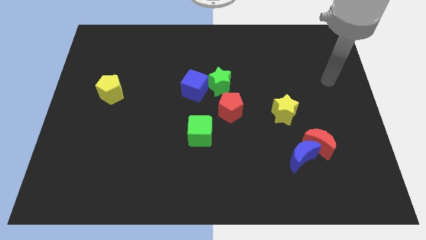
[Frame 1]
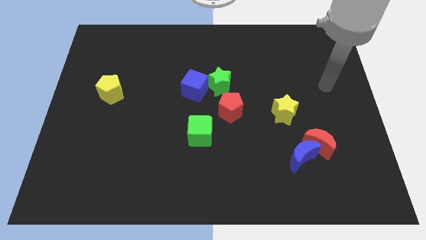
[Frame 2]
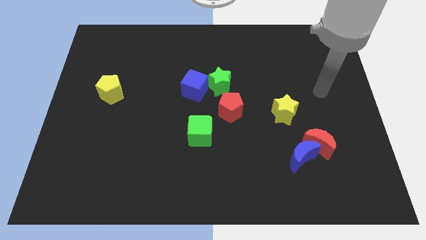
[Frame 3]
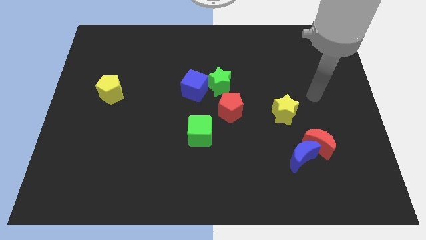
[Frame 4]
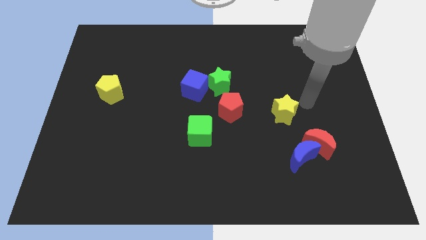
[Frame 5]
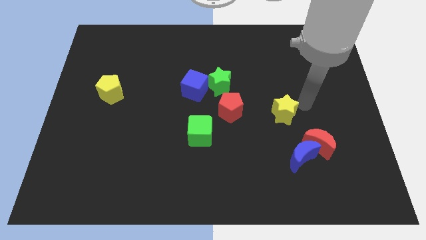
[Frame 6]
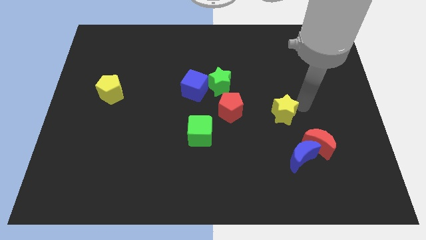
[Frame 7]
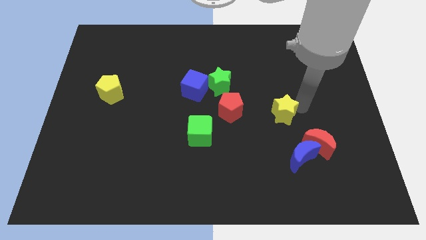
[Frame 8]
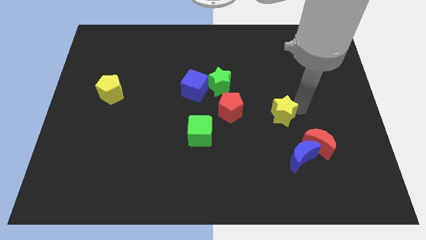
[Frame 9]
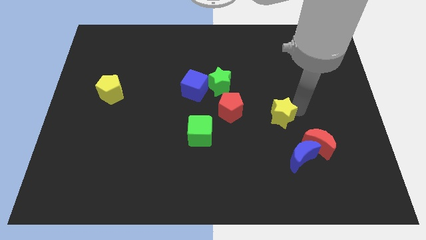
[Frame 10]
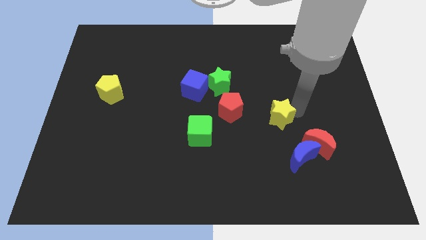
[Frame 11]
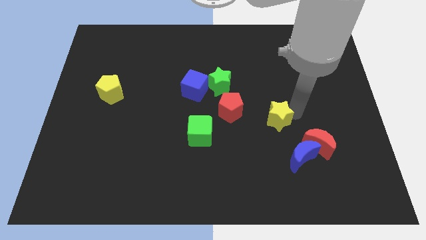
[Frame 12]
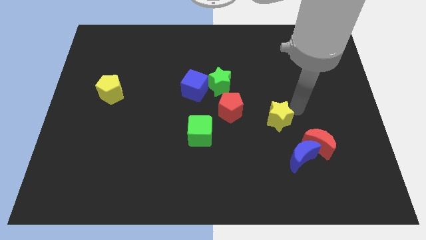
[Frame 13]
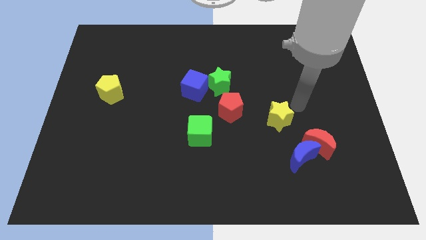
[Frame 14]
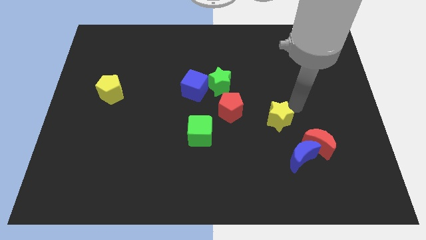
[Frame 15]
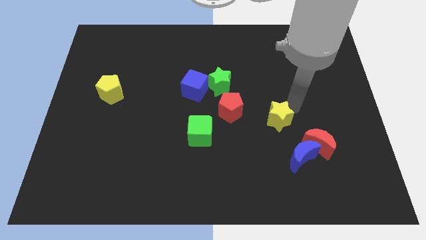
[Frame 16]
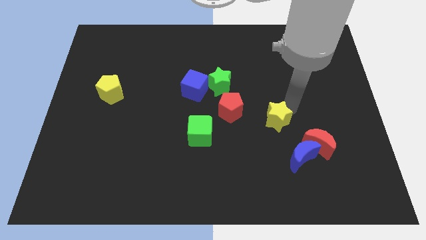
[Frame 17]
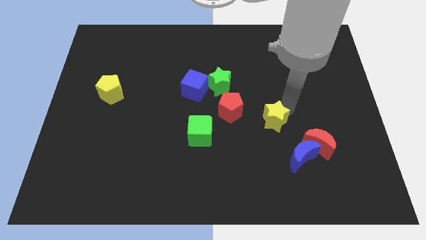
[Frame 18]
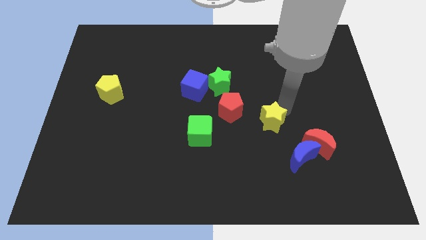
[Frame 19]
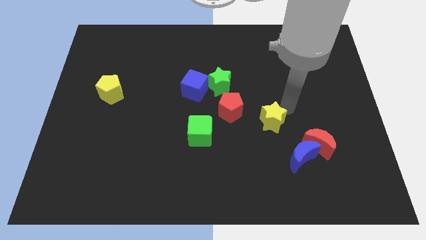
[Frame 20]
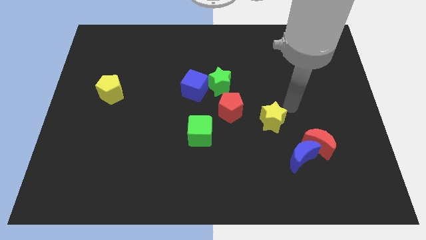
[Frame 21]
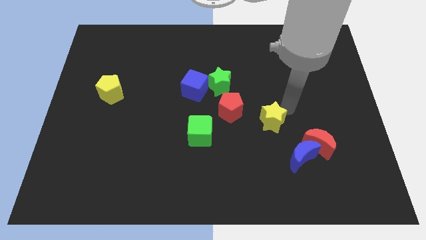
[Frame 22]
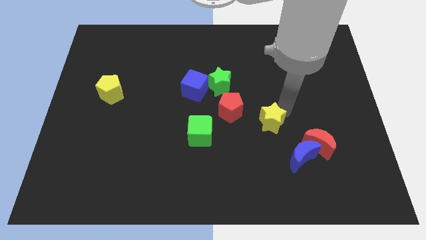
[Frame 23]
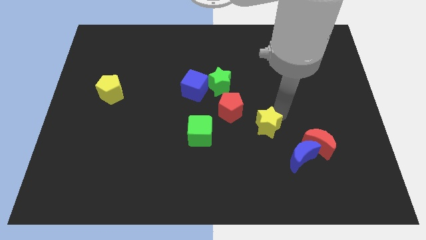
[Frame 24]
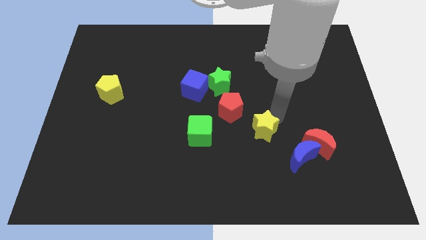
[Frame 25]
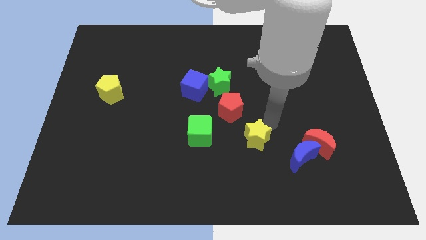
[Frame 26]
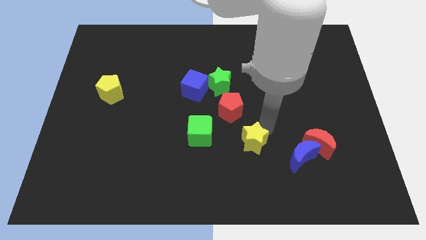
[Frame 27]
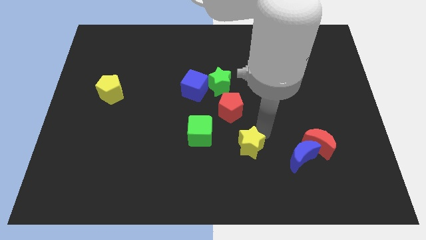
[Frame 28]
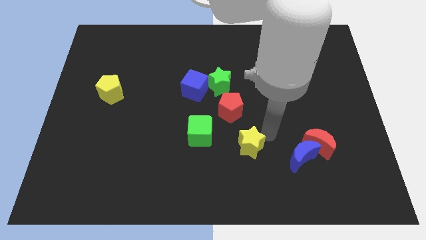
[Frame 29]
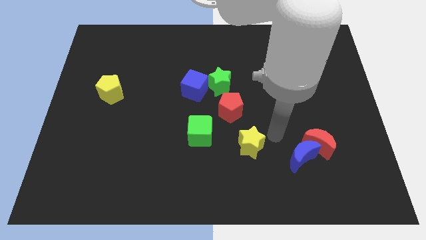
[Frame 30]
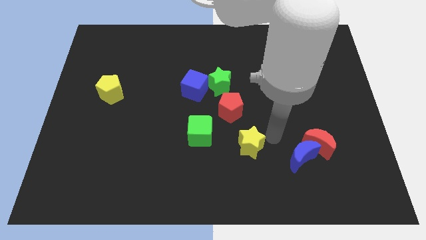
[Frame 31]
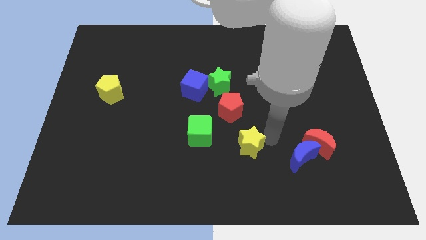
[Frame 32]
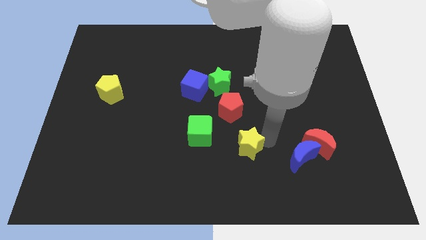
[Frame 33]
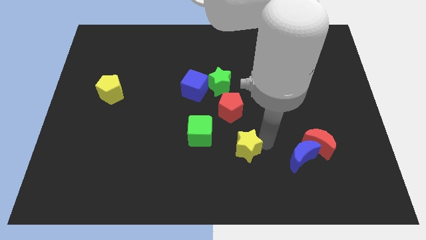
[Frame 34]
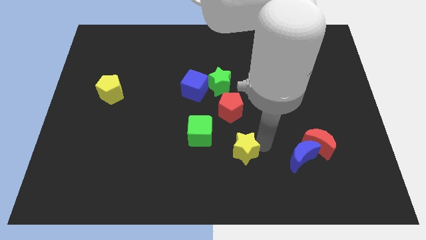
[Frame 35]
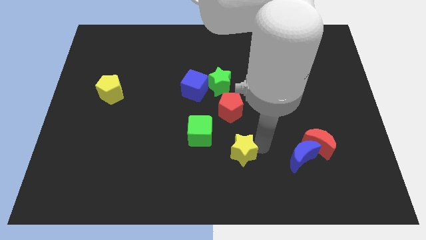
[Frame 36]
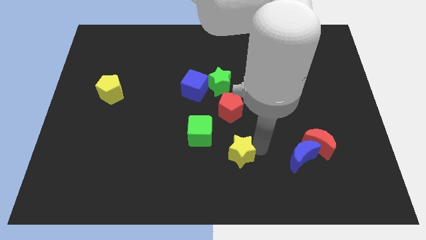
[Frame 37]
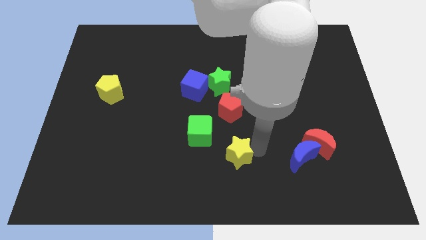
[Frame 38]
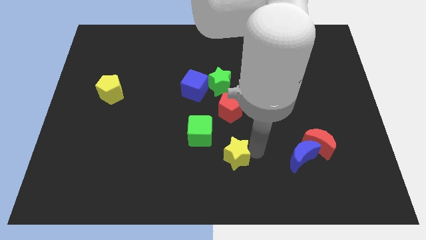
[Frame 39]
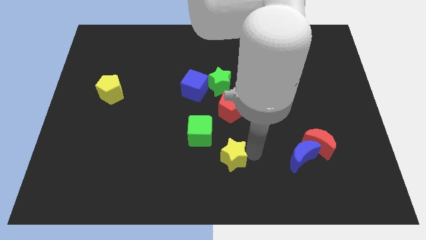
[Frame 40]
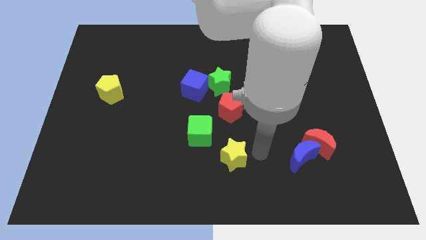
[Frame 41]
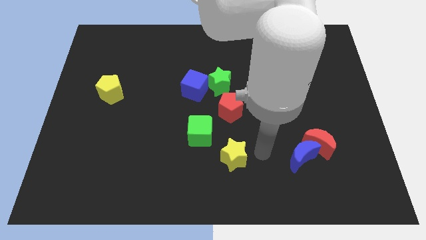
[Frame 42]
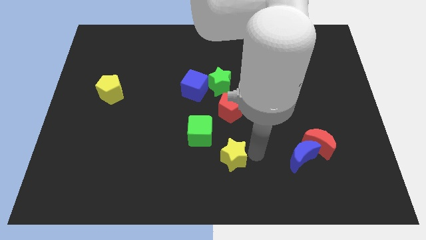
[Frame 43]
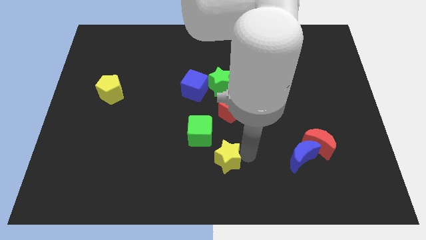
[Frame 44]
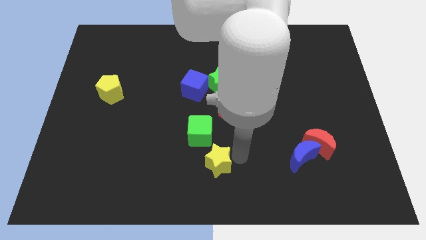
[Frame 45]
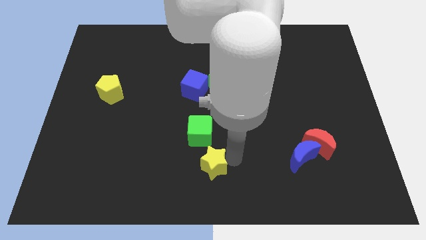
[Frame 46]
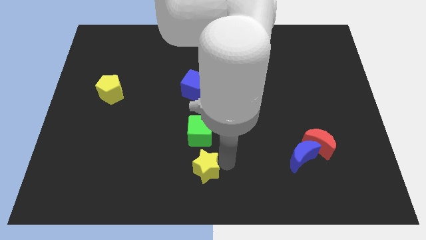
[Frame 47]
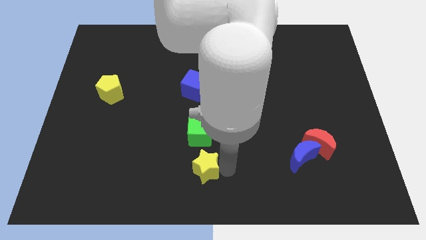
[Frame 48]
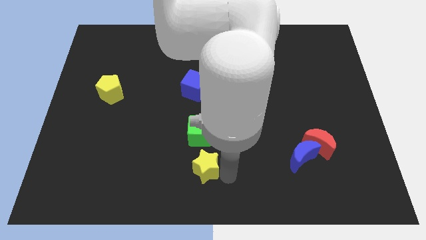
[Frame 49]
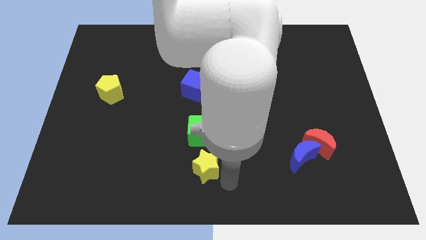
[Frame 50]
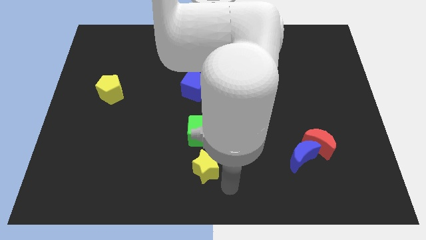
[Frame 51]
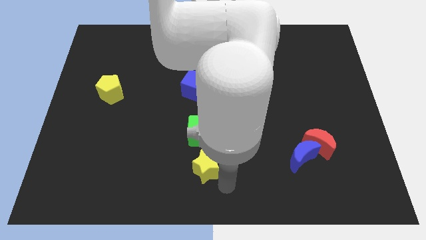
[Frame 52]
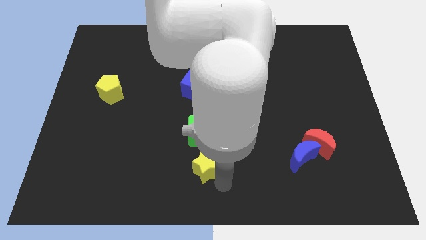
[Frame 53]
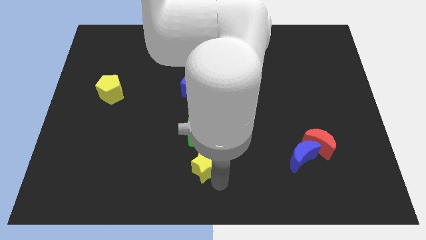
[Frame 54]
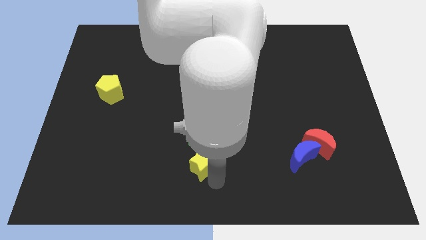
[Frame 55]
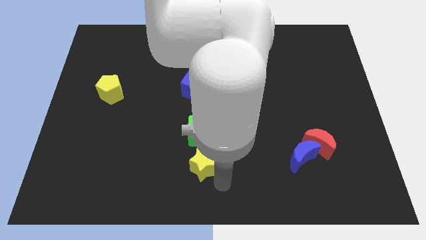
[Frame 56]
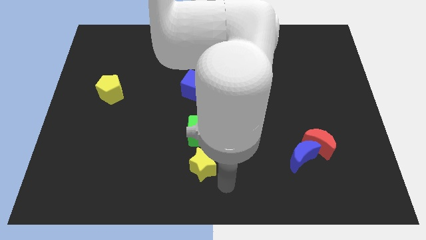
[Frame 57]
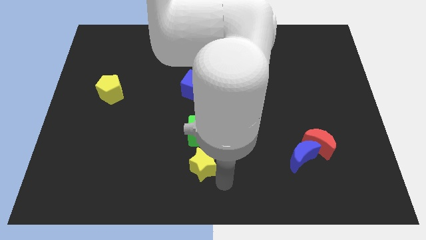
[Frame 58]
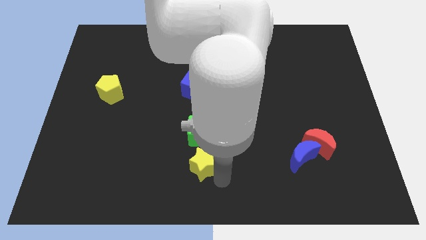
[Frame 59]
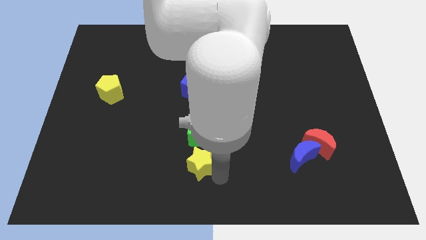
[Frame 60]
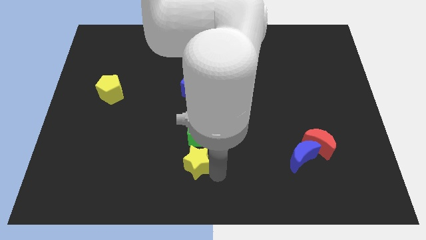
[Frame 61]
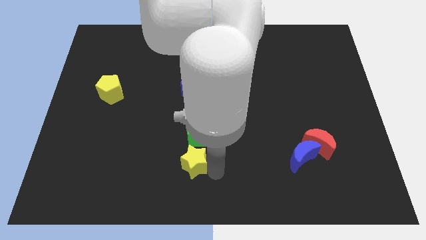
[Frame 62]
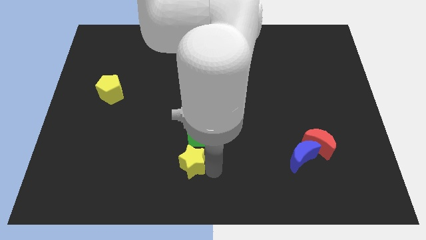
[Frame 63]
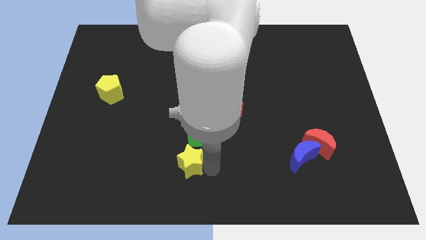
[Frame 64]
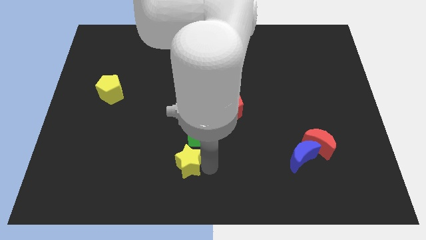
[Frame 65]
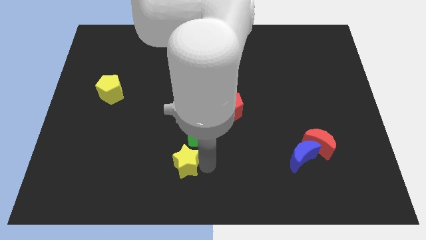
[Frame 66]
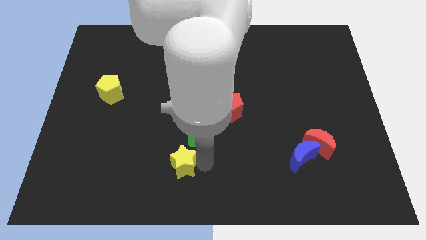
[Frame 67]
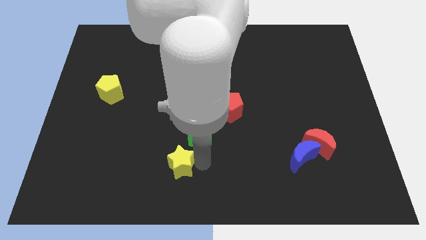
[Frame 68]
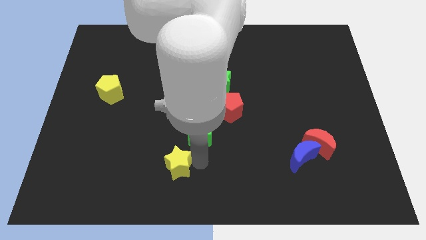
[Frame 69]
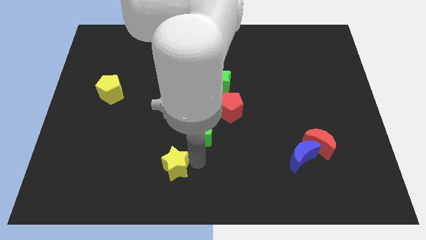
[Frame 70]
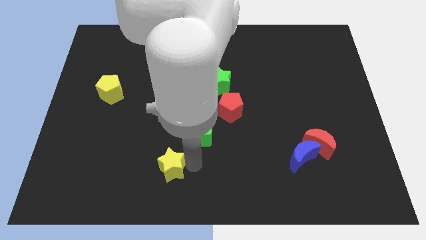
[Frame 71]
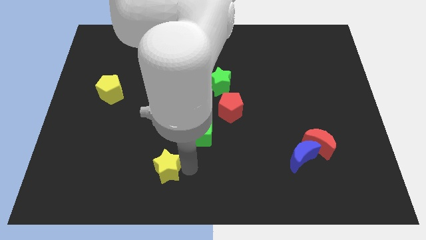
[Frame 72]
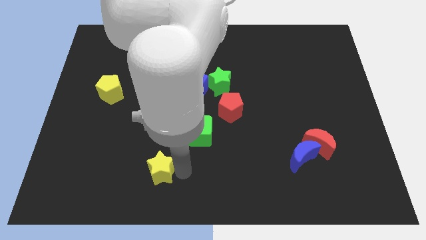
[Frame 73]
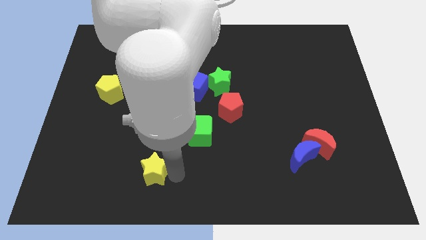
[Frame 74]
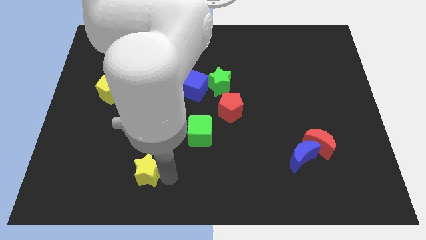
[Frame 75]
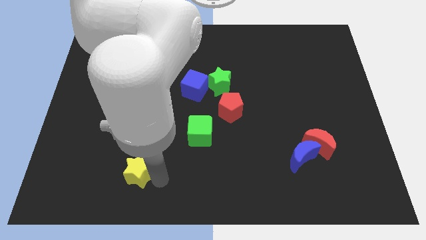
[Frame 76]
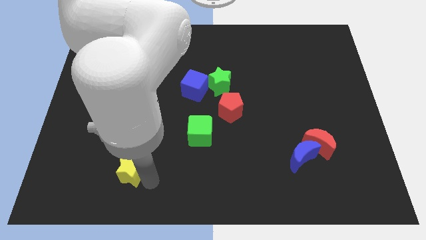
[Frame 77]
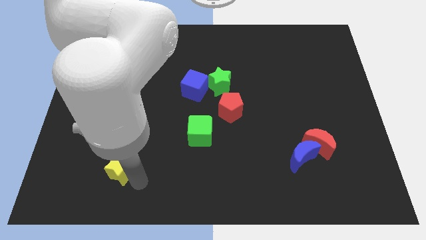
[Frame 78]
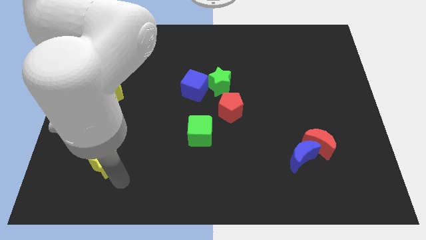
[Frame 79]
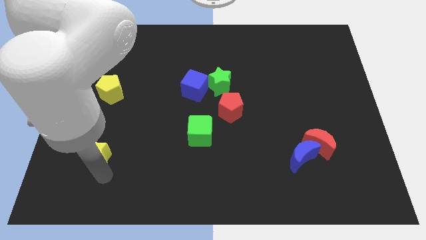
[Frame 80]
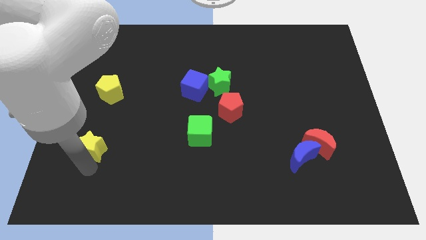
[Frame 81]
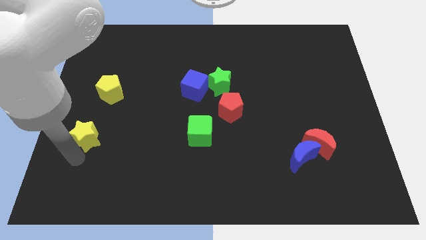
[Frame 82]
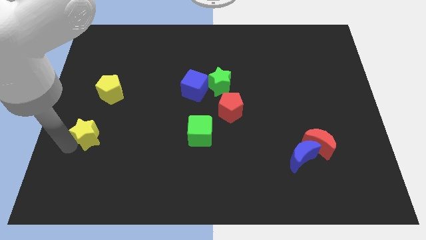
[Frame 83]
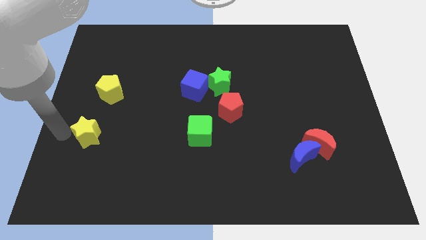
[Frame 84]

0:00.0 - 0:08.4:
slide the yellow star to the left
